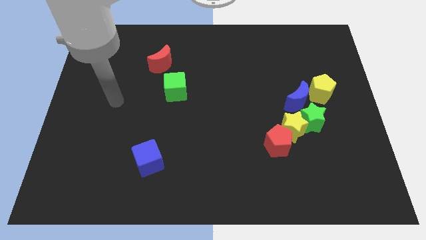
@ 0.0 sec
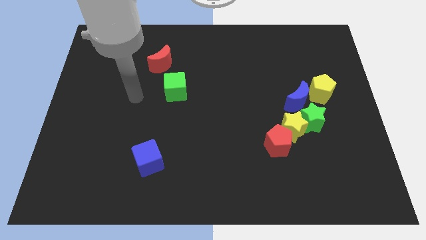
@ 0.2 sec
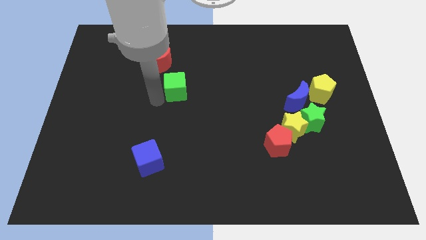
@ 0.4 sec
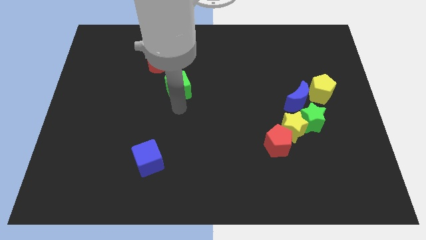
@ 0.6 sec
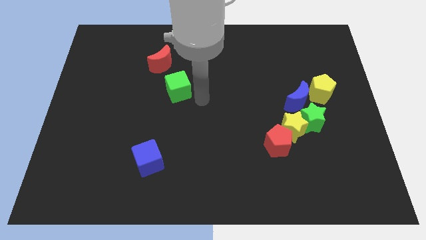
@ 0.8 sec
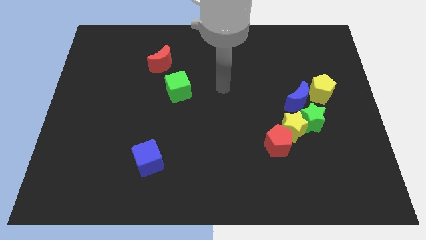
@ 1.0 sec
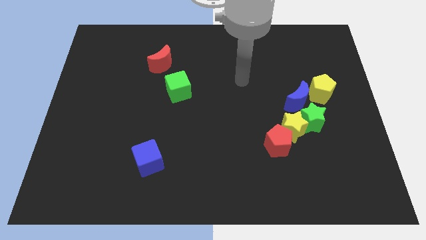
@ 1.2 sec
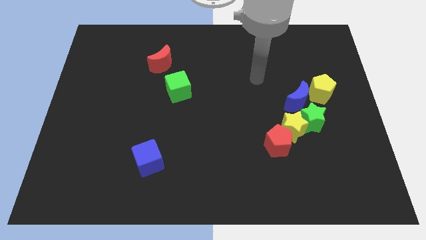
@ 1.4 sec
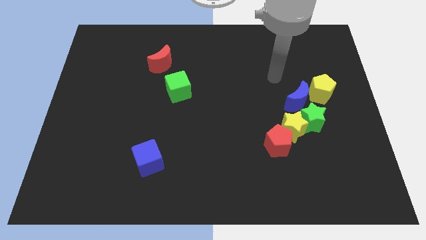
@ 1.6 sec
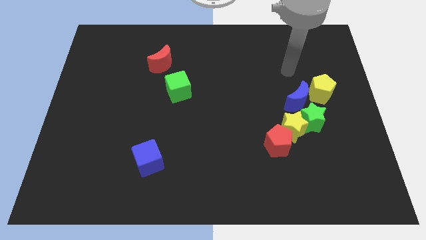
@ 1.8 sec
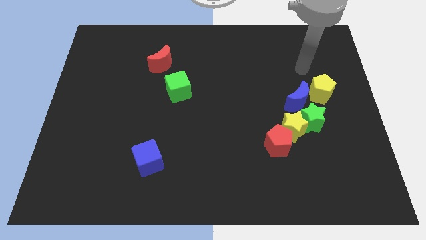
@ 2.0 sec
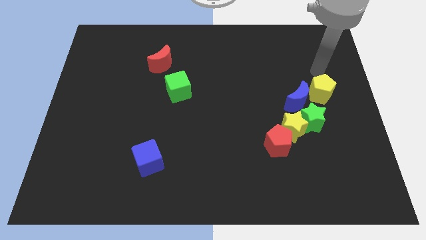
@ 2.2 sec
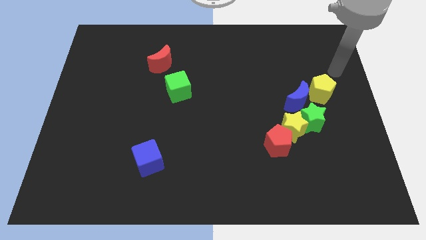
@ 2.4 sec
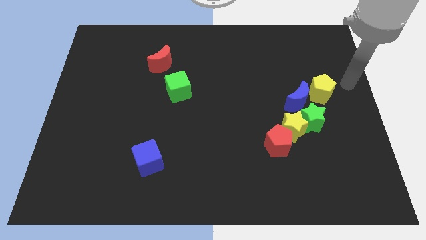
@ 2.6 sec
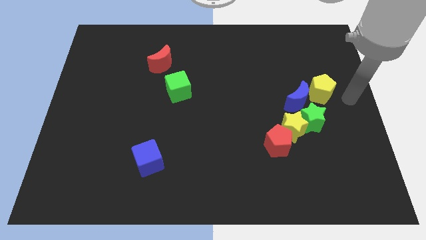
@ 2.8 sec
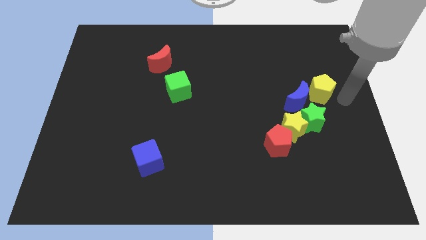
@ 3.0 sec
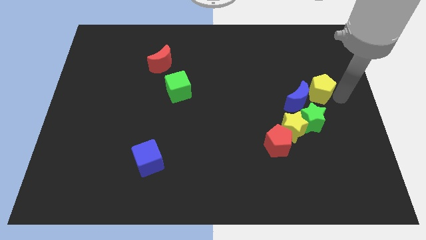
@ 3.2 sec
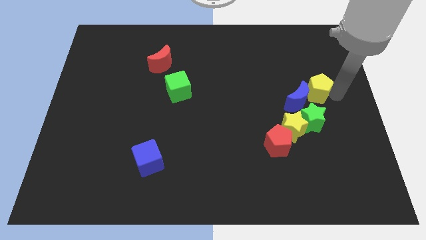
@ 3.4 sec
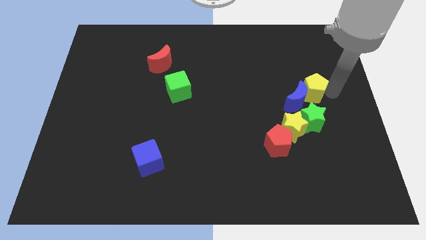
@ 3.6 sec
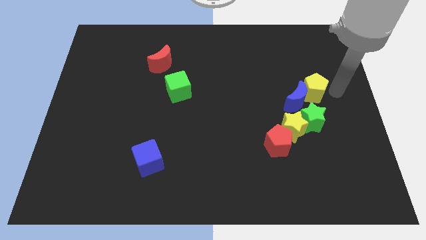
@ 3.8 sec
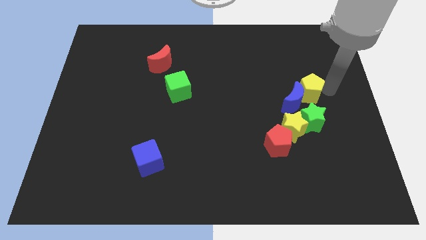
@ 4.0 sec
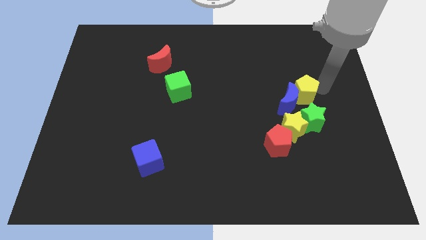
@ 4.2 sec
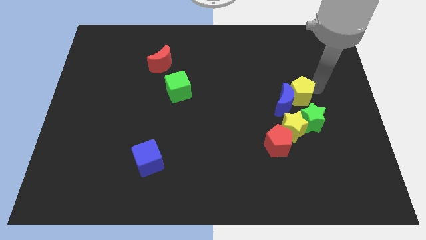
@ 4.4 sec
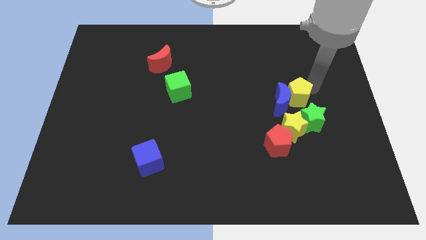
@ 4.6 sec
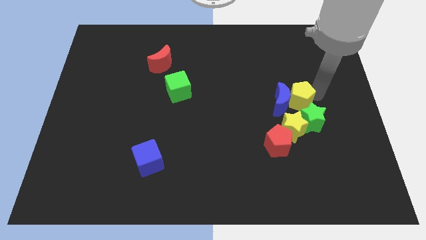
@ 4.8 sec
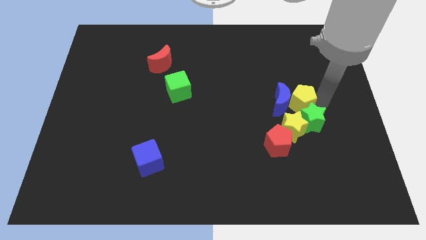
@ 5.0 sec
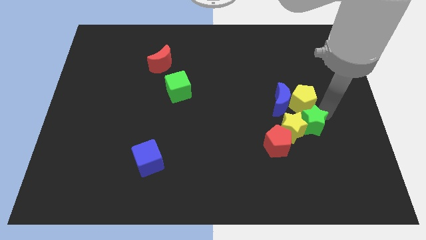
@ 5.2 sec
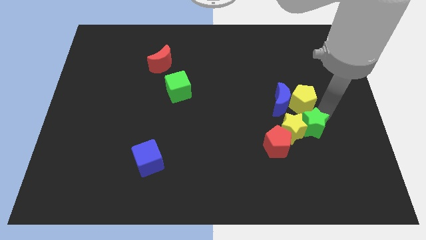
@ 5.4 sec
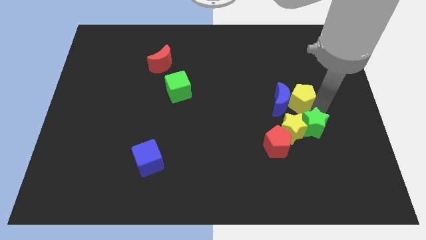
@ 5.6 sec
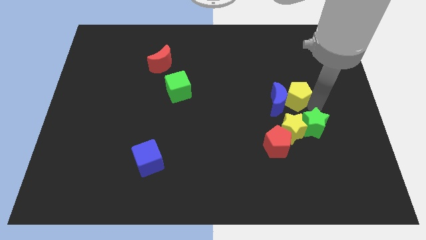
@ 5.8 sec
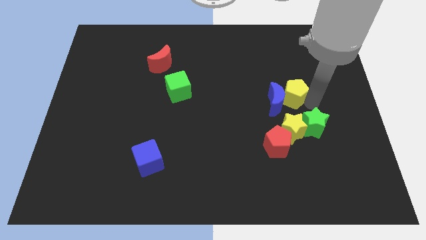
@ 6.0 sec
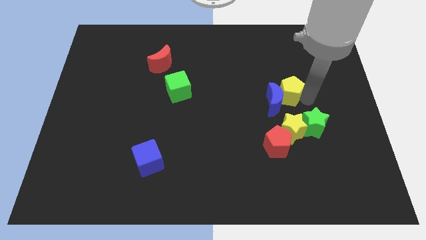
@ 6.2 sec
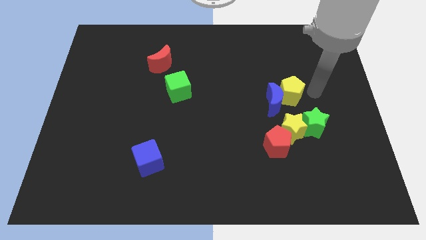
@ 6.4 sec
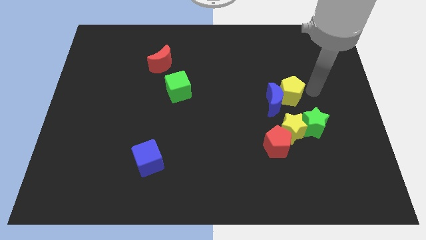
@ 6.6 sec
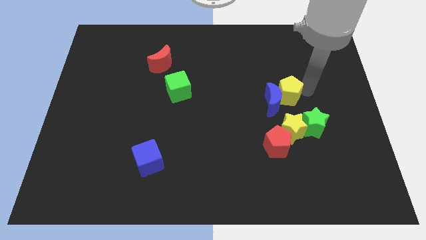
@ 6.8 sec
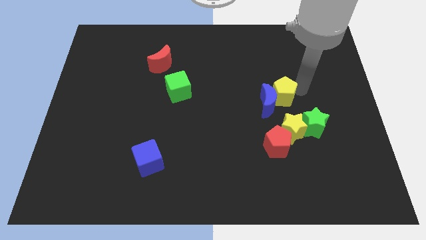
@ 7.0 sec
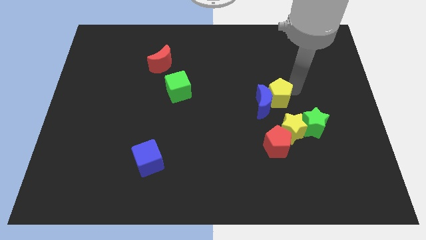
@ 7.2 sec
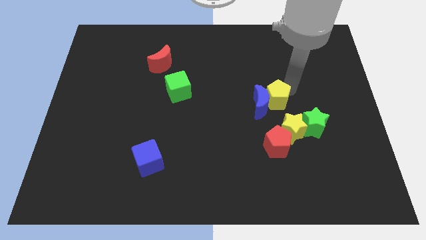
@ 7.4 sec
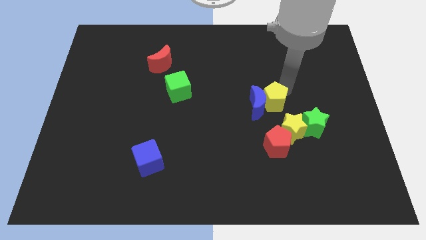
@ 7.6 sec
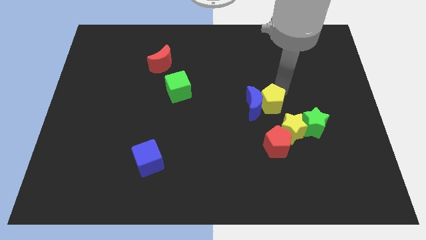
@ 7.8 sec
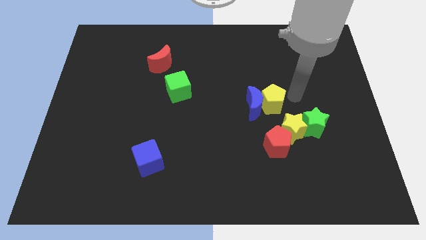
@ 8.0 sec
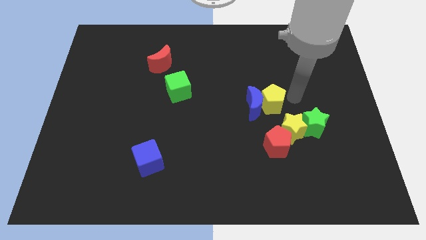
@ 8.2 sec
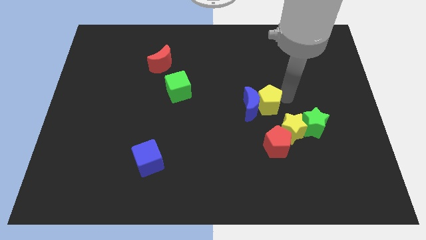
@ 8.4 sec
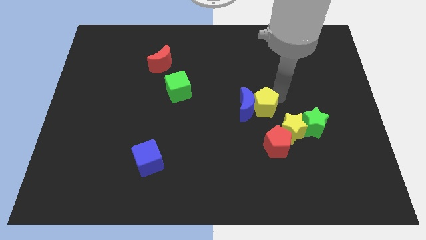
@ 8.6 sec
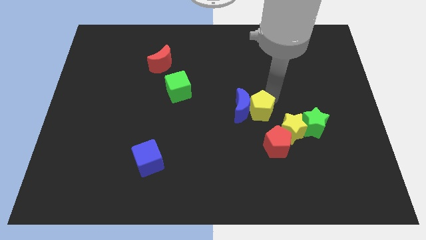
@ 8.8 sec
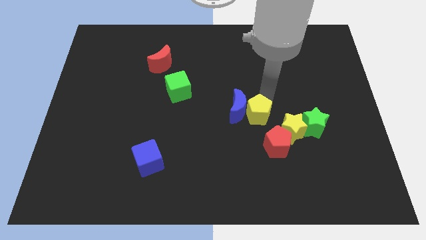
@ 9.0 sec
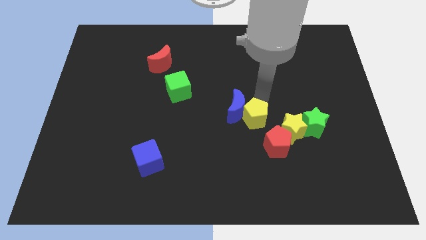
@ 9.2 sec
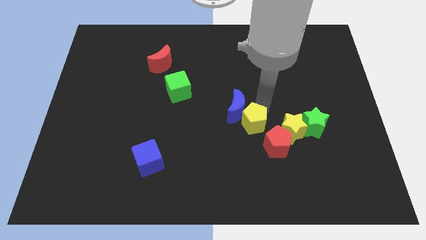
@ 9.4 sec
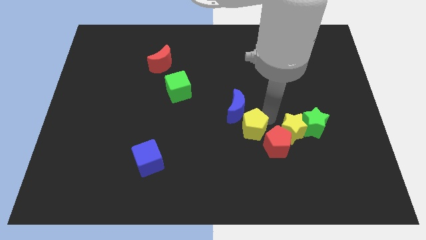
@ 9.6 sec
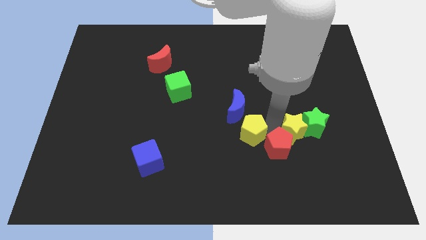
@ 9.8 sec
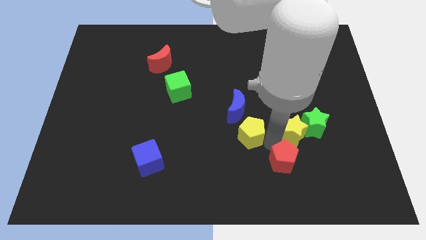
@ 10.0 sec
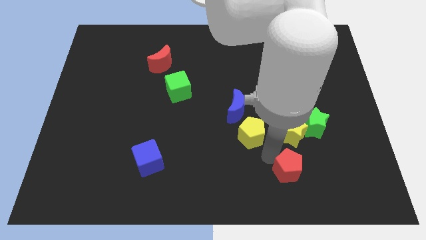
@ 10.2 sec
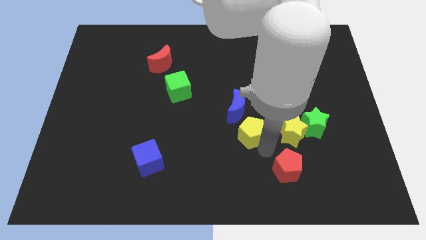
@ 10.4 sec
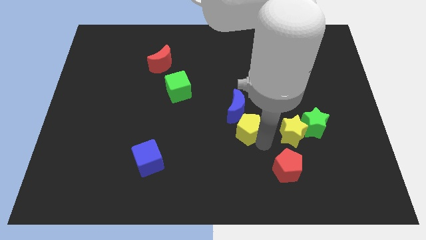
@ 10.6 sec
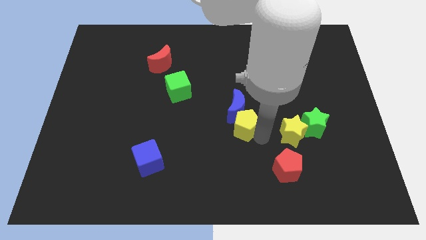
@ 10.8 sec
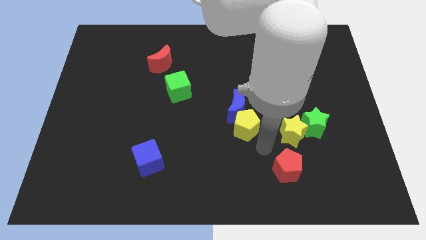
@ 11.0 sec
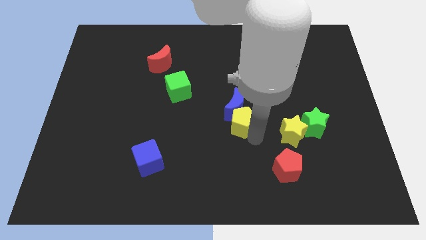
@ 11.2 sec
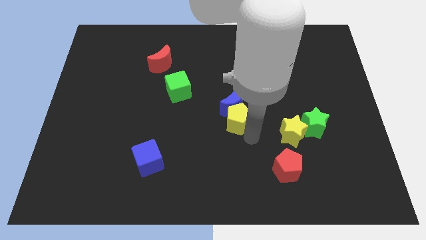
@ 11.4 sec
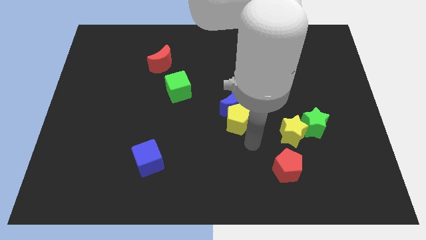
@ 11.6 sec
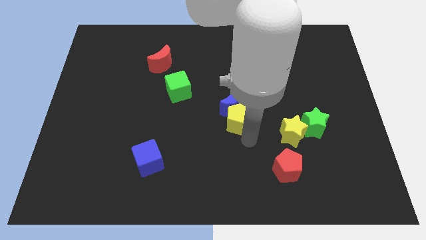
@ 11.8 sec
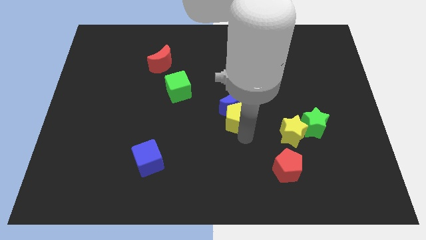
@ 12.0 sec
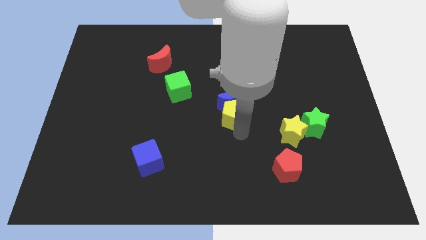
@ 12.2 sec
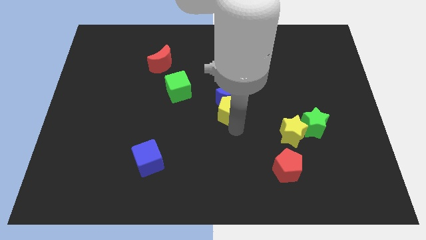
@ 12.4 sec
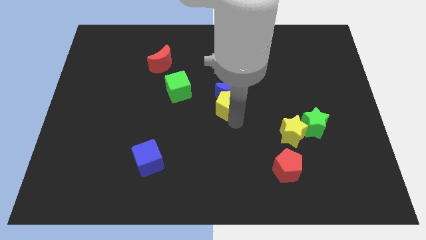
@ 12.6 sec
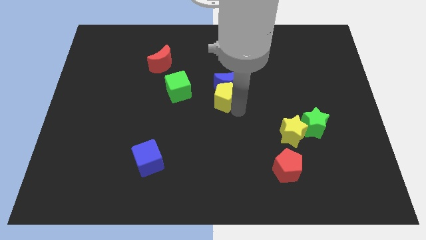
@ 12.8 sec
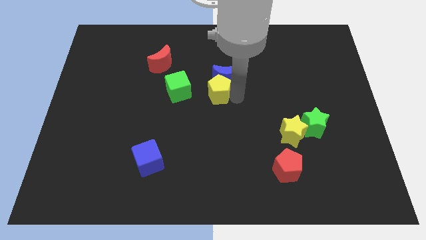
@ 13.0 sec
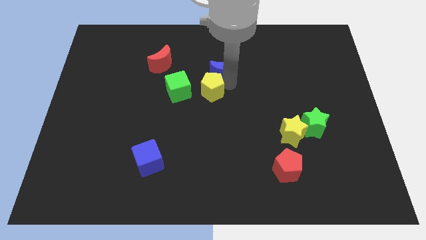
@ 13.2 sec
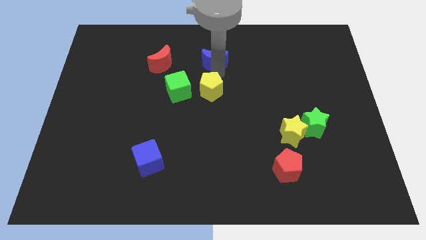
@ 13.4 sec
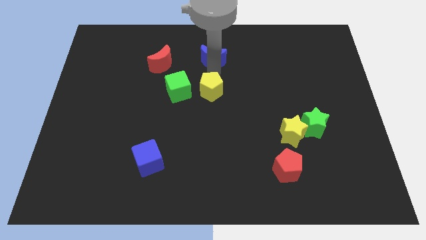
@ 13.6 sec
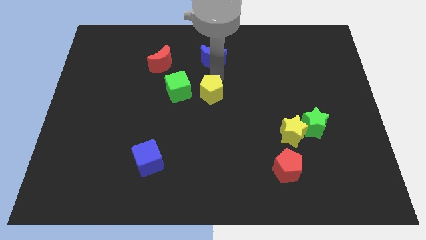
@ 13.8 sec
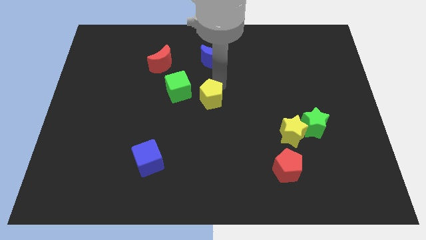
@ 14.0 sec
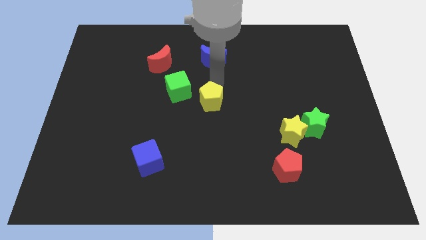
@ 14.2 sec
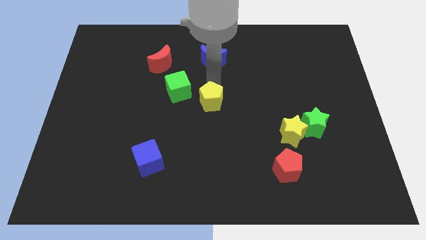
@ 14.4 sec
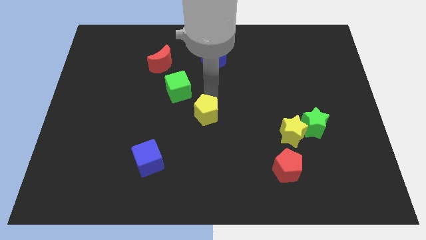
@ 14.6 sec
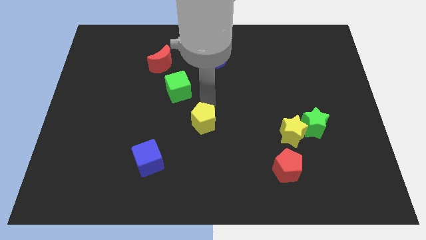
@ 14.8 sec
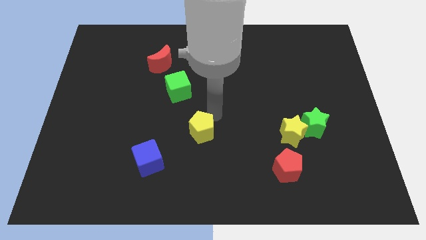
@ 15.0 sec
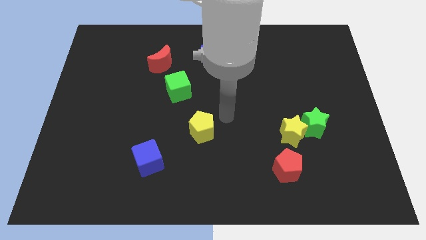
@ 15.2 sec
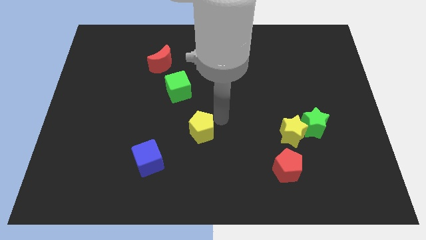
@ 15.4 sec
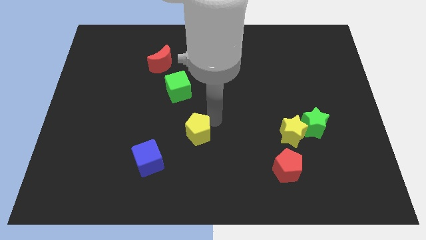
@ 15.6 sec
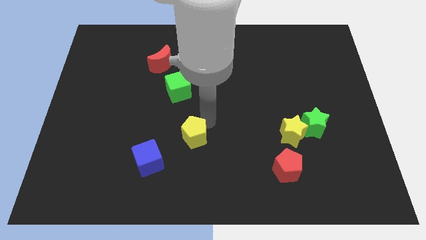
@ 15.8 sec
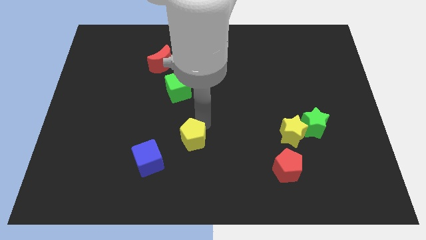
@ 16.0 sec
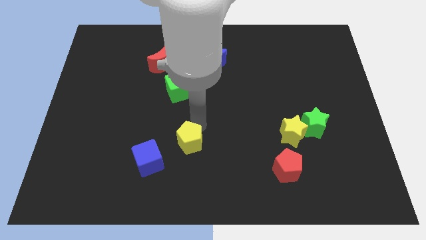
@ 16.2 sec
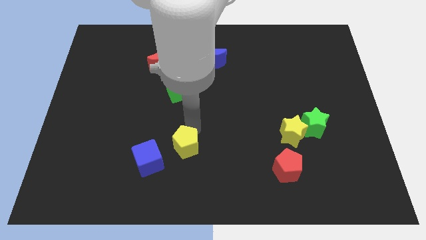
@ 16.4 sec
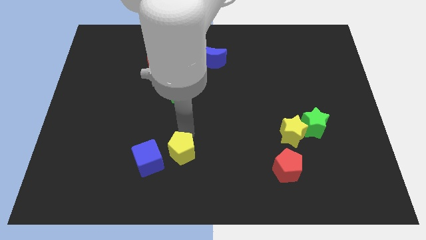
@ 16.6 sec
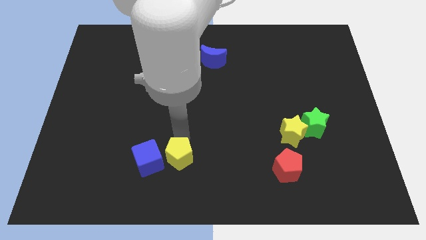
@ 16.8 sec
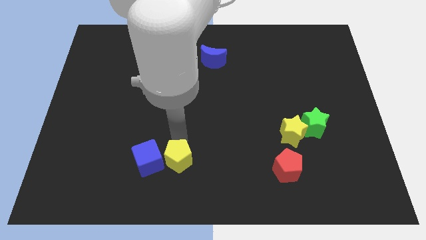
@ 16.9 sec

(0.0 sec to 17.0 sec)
put the yellow pentagon towards the blue cube
